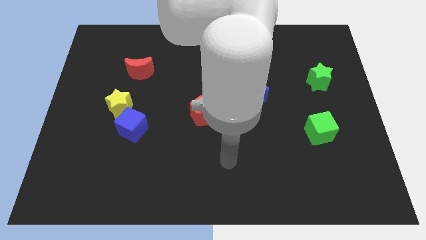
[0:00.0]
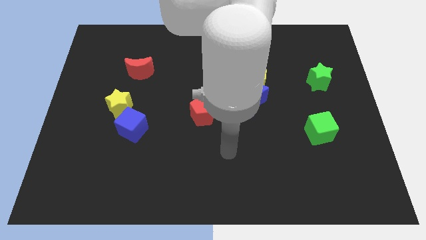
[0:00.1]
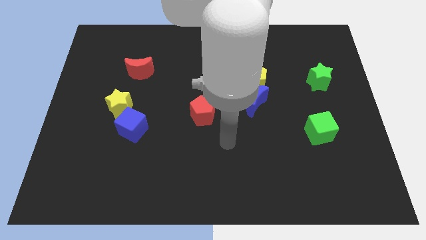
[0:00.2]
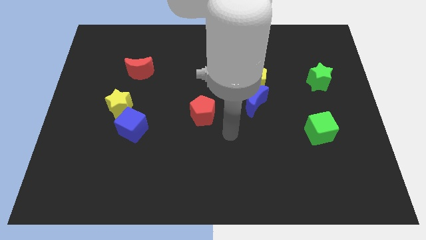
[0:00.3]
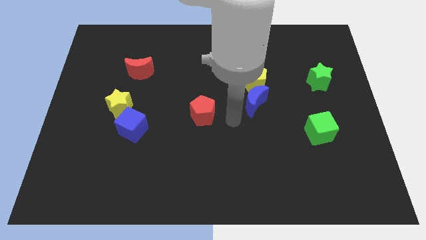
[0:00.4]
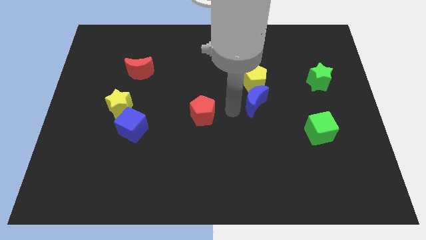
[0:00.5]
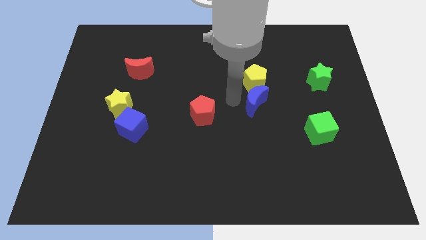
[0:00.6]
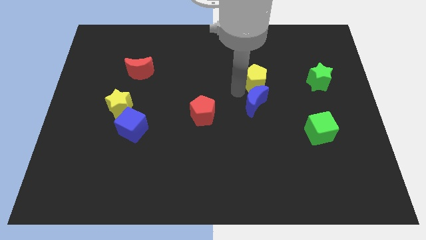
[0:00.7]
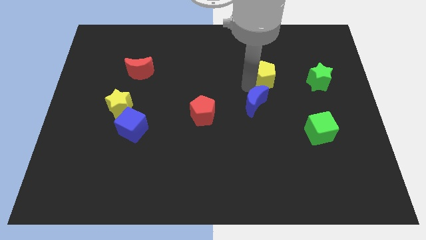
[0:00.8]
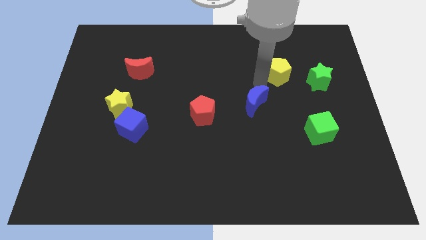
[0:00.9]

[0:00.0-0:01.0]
separate the blue moon from the yellow pentagon

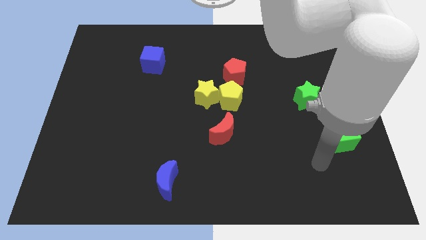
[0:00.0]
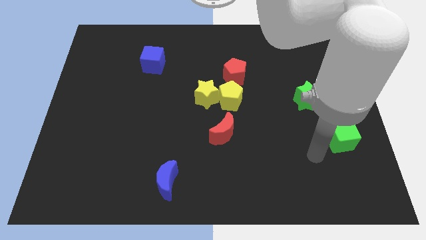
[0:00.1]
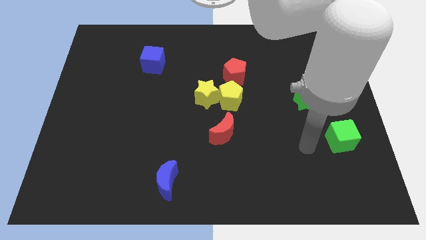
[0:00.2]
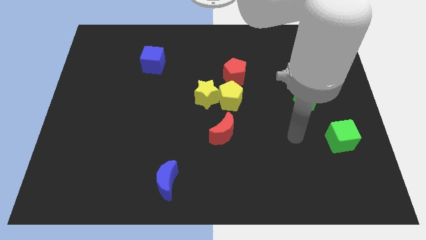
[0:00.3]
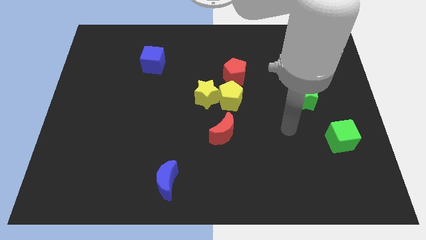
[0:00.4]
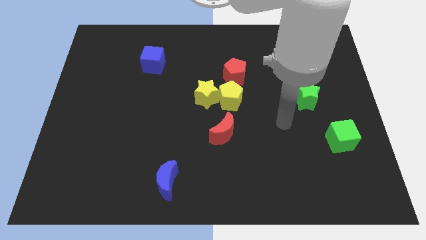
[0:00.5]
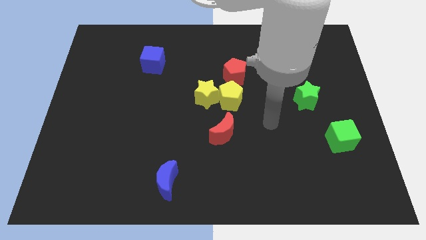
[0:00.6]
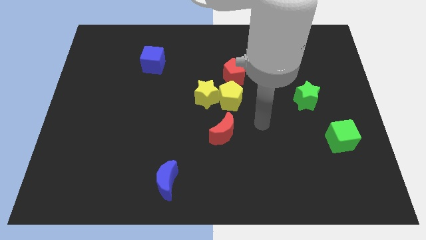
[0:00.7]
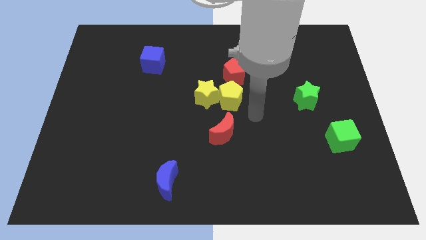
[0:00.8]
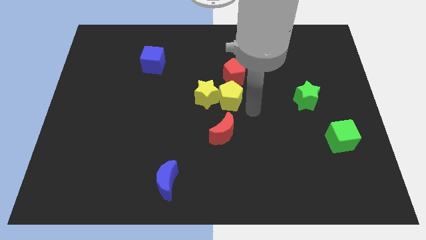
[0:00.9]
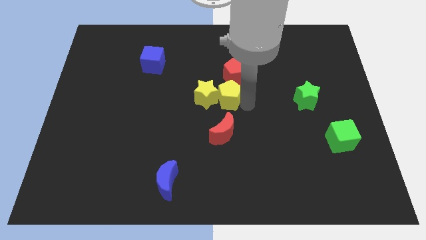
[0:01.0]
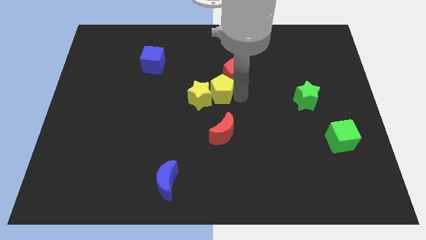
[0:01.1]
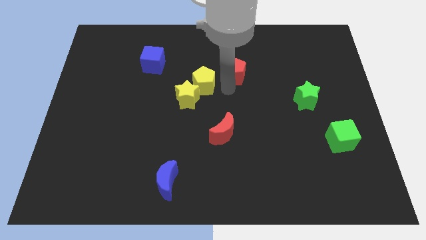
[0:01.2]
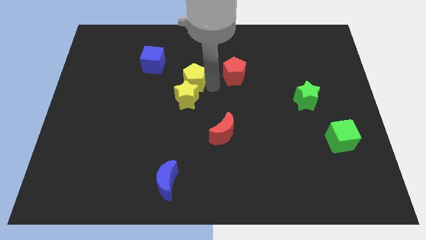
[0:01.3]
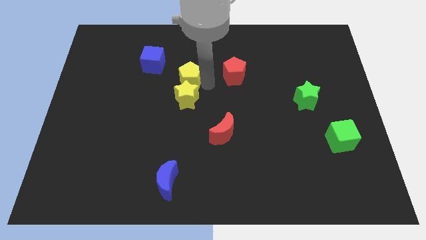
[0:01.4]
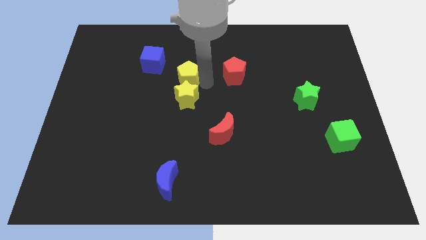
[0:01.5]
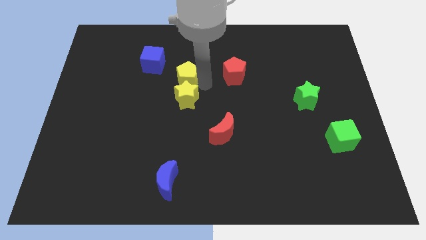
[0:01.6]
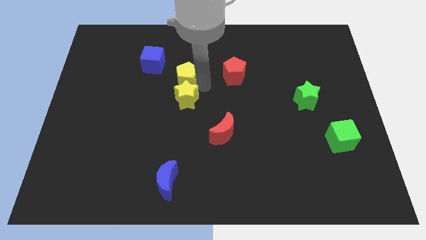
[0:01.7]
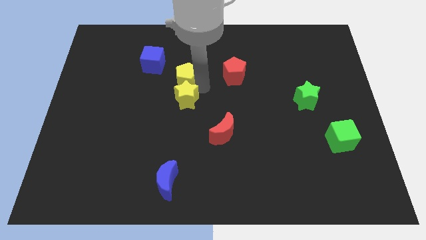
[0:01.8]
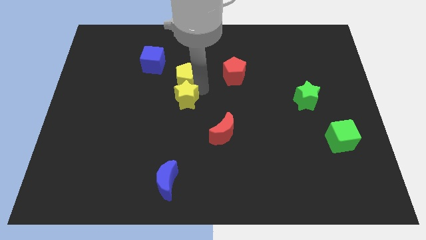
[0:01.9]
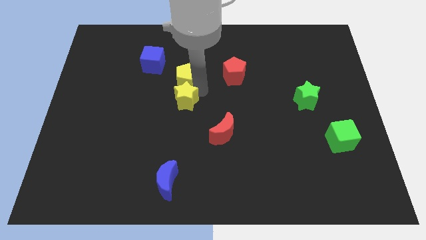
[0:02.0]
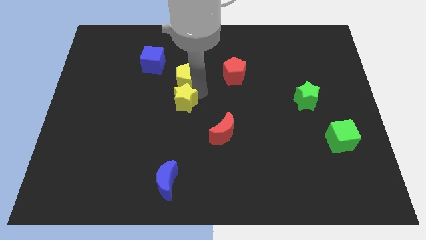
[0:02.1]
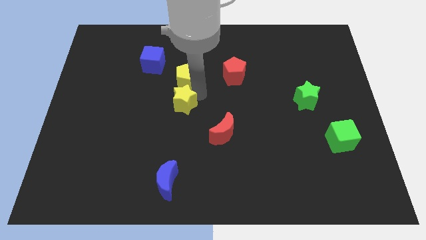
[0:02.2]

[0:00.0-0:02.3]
move the yellow star away from the yellow pentagon and red pentagon

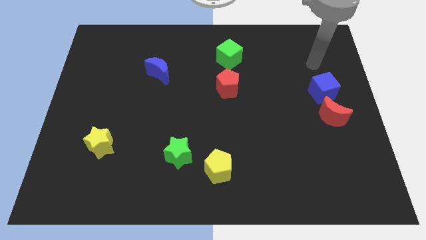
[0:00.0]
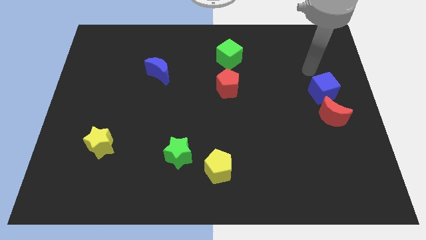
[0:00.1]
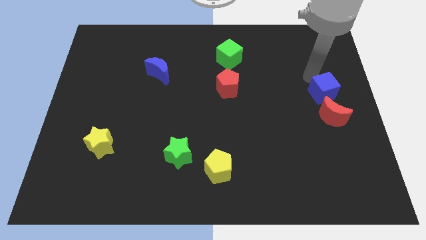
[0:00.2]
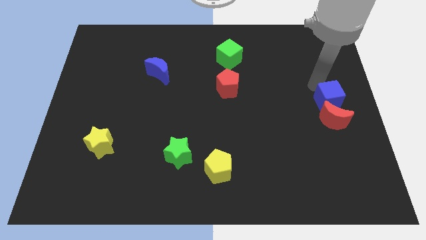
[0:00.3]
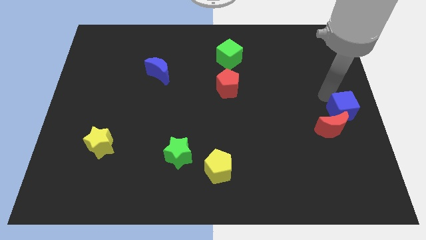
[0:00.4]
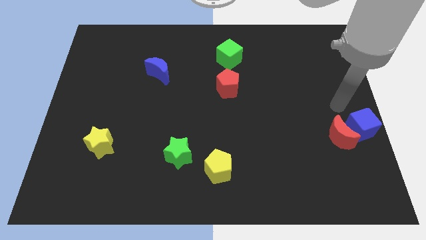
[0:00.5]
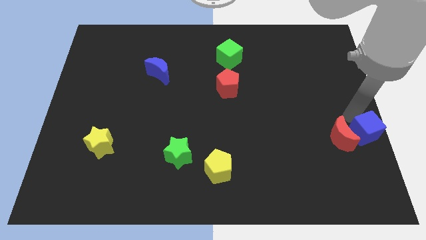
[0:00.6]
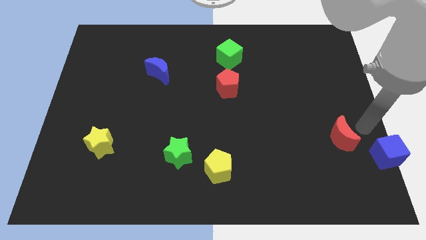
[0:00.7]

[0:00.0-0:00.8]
move the red moon away from the blue cube

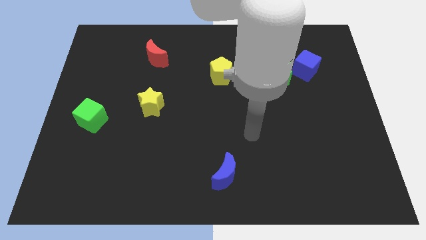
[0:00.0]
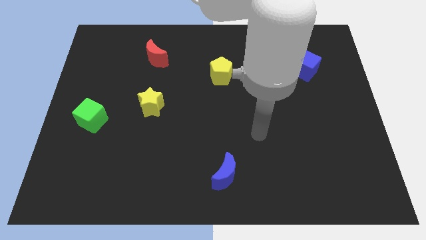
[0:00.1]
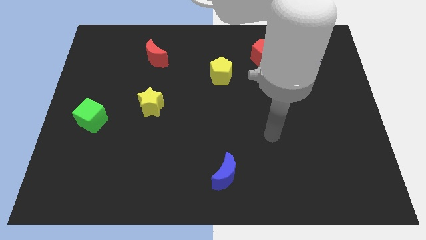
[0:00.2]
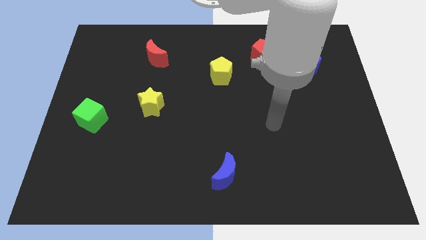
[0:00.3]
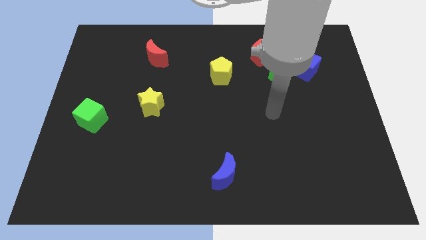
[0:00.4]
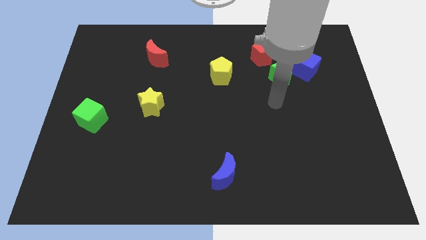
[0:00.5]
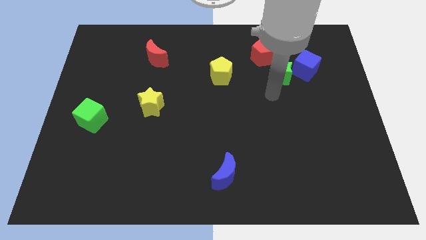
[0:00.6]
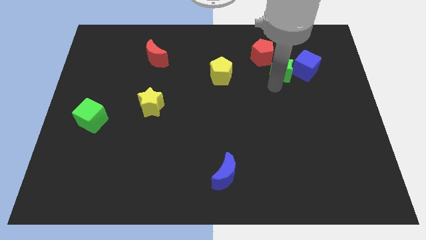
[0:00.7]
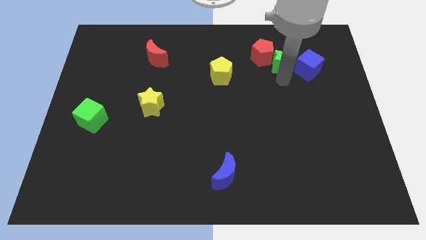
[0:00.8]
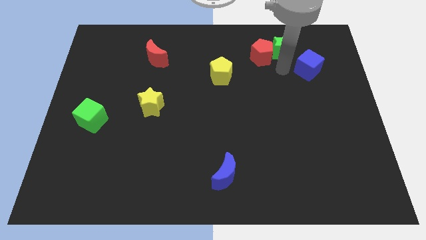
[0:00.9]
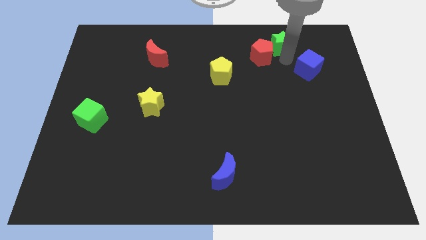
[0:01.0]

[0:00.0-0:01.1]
separate the blue cube from the green star

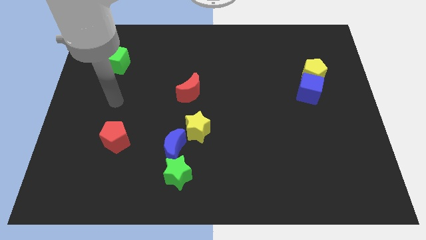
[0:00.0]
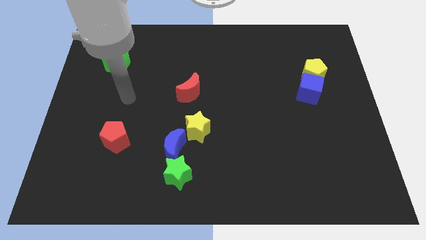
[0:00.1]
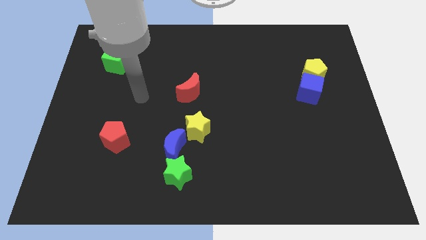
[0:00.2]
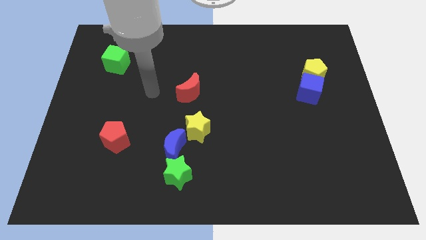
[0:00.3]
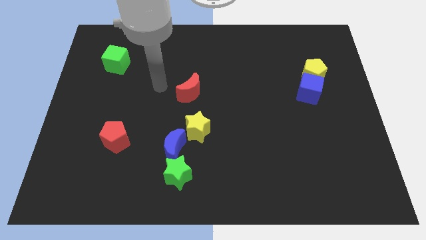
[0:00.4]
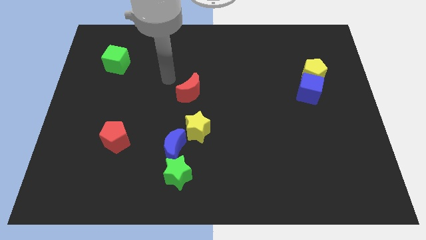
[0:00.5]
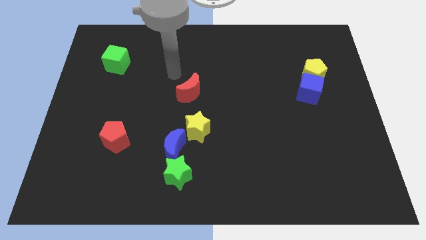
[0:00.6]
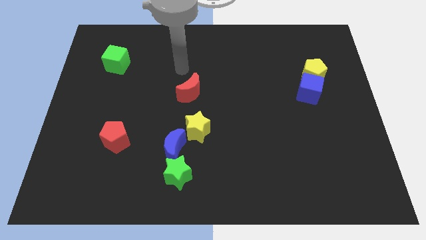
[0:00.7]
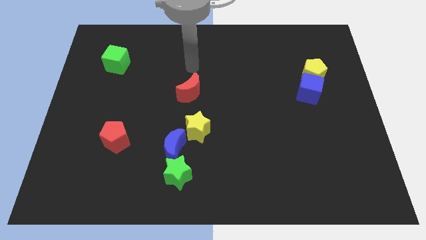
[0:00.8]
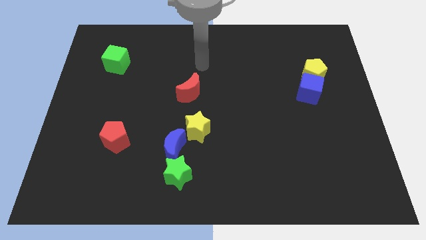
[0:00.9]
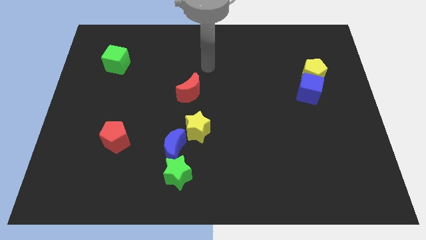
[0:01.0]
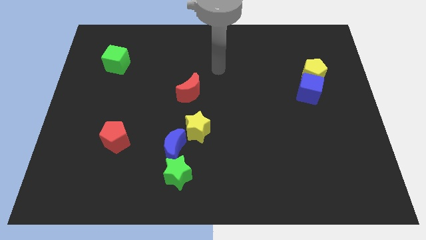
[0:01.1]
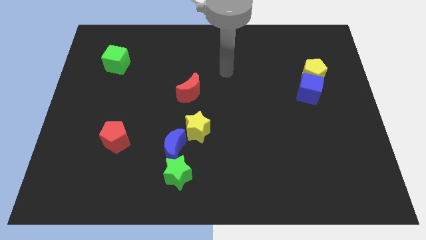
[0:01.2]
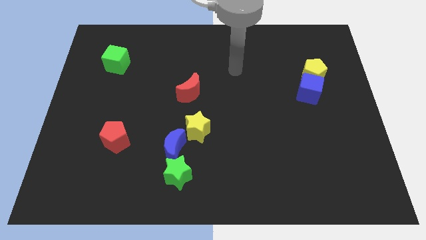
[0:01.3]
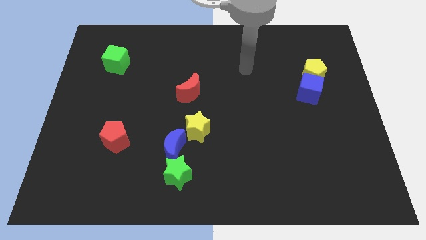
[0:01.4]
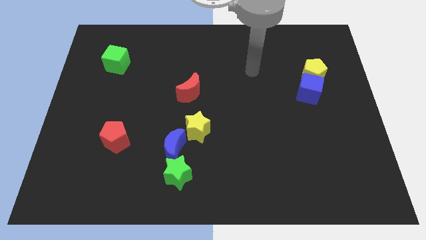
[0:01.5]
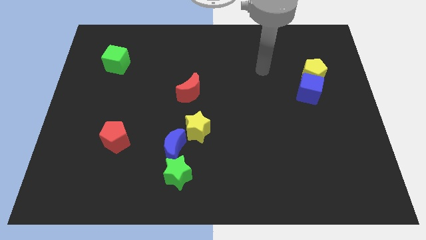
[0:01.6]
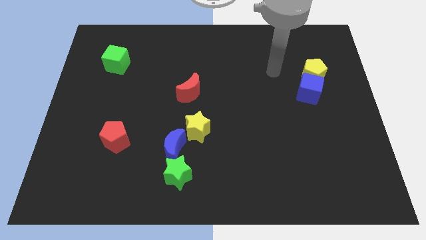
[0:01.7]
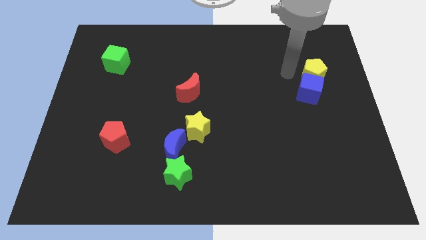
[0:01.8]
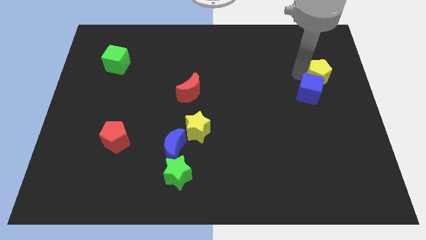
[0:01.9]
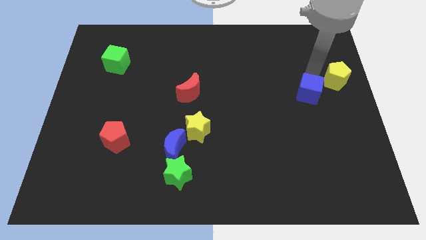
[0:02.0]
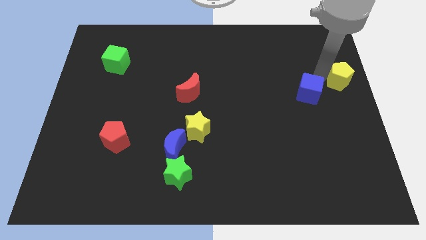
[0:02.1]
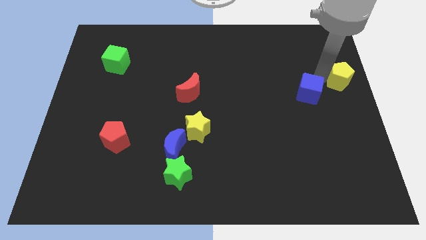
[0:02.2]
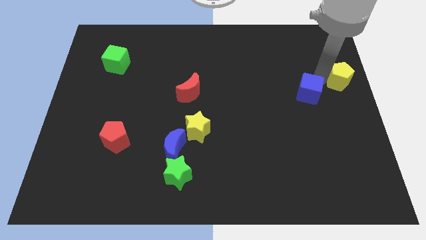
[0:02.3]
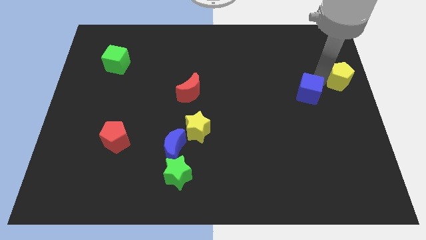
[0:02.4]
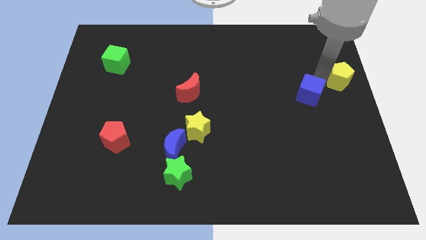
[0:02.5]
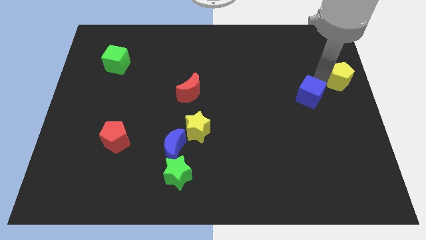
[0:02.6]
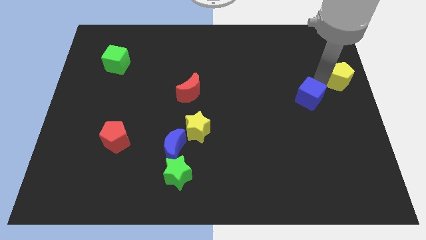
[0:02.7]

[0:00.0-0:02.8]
pull the blue cube apart from the yellow pentagon

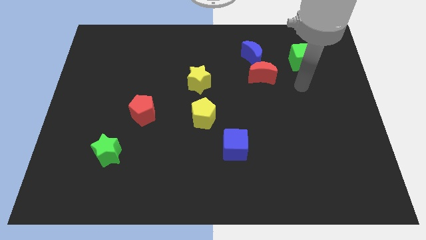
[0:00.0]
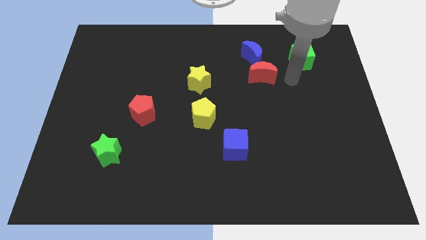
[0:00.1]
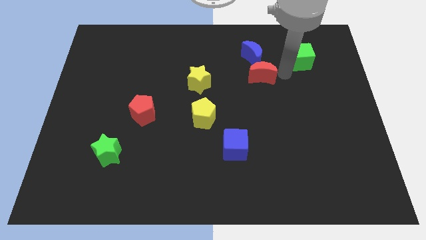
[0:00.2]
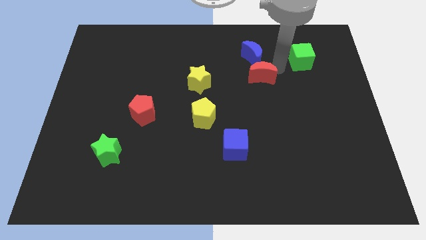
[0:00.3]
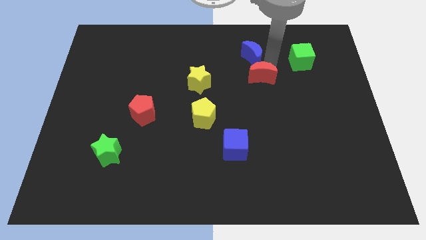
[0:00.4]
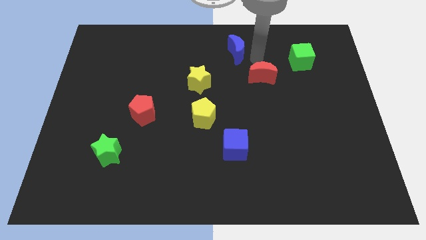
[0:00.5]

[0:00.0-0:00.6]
move the red moon away from the blue moon

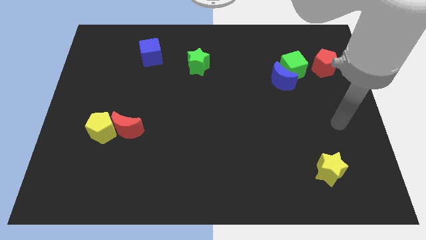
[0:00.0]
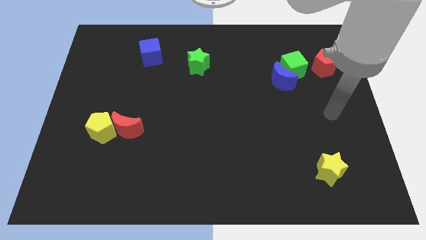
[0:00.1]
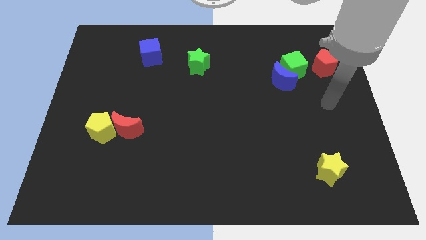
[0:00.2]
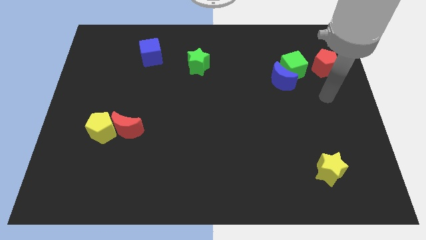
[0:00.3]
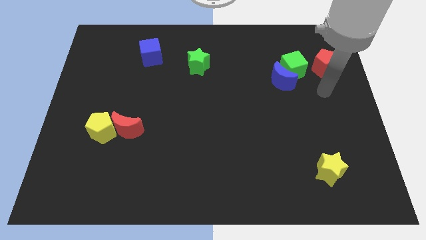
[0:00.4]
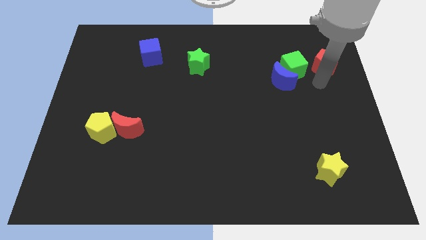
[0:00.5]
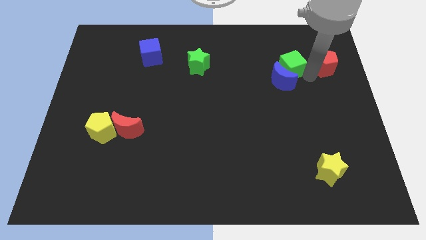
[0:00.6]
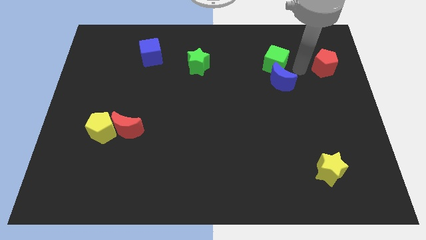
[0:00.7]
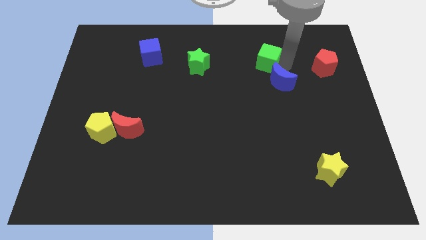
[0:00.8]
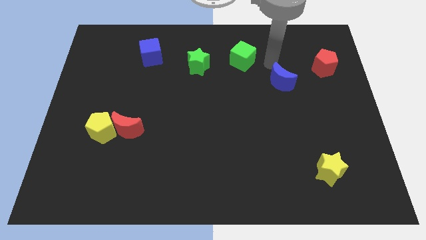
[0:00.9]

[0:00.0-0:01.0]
separate the blue moon from the green cube
